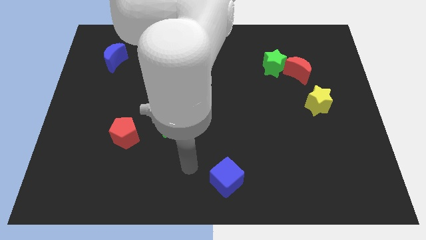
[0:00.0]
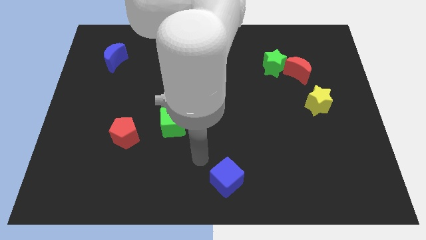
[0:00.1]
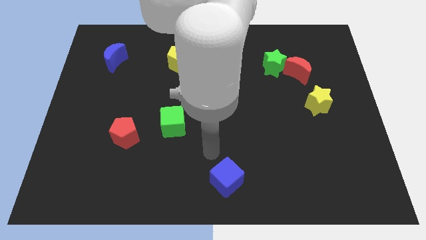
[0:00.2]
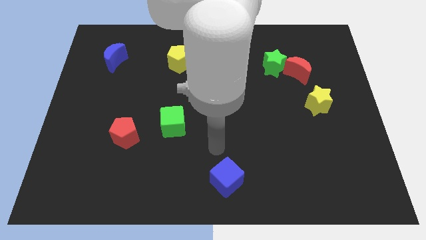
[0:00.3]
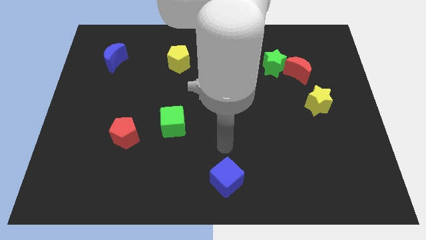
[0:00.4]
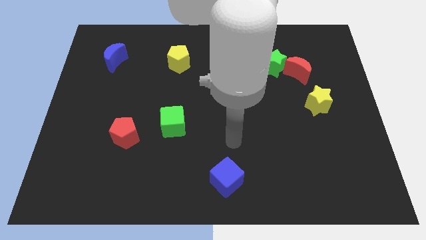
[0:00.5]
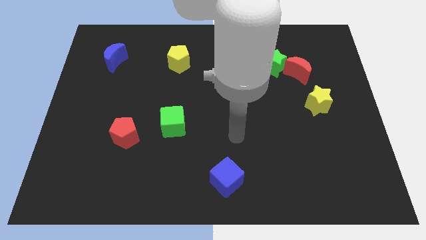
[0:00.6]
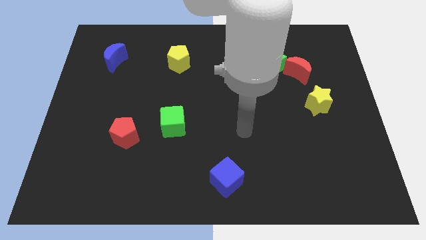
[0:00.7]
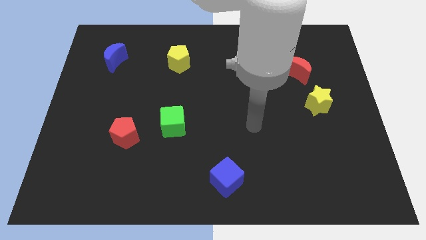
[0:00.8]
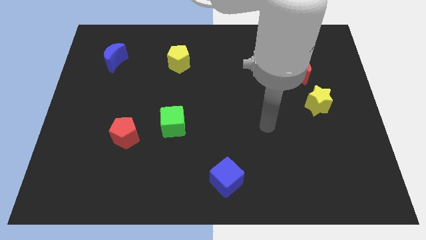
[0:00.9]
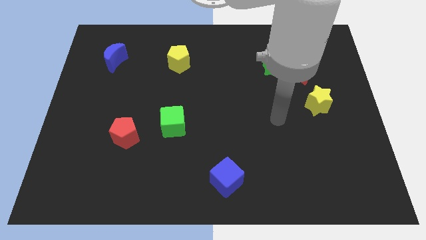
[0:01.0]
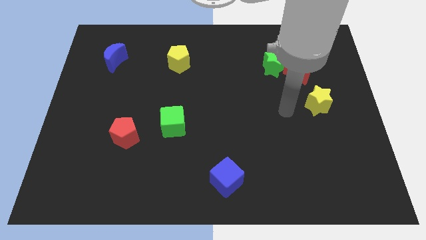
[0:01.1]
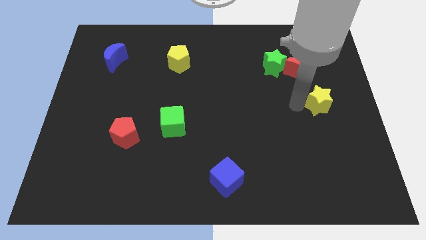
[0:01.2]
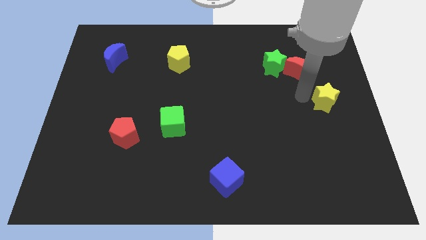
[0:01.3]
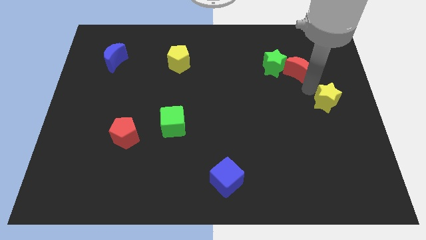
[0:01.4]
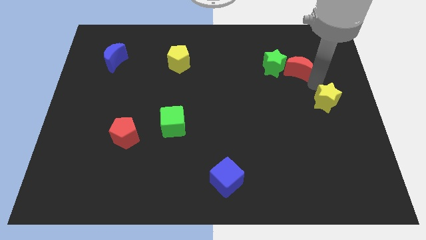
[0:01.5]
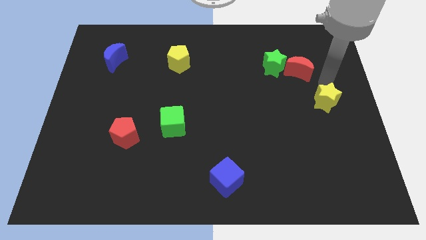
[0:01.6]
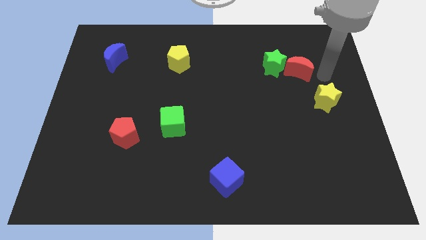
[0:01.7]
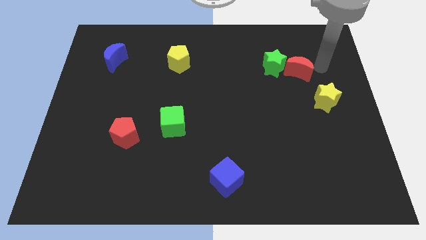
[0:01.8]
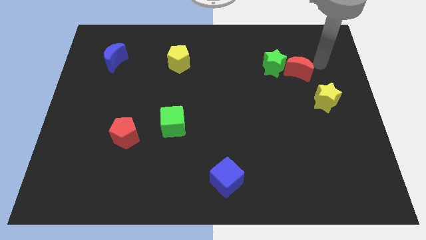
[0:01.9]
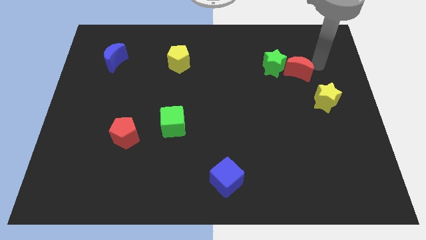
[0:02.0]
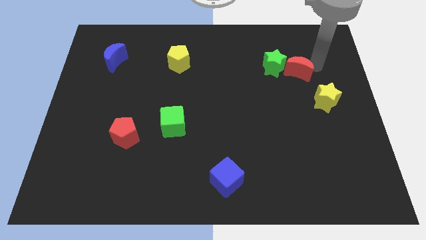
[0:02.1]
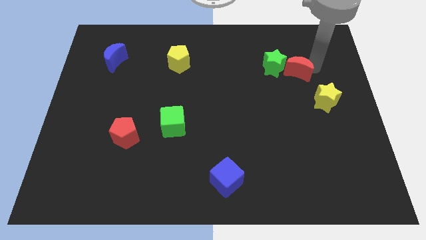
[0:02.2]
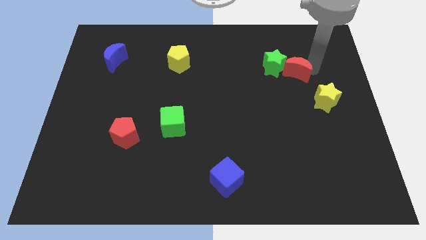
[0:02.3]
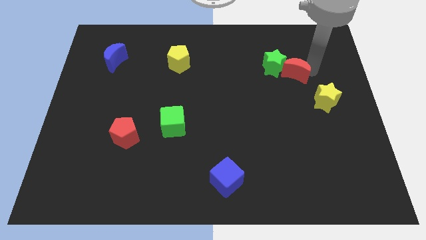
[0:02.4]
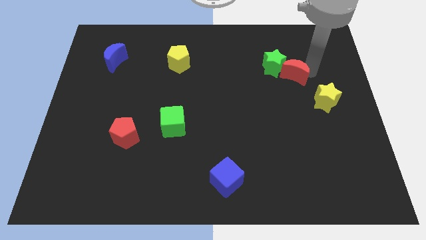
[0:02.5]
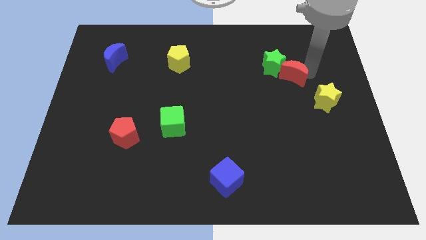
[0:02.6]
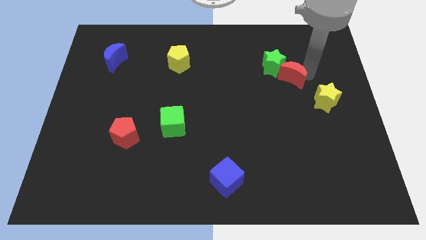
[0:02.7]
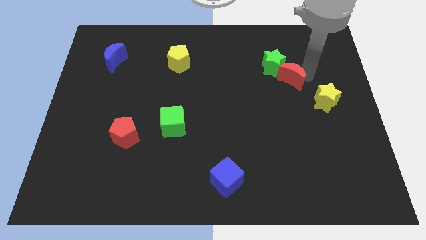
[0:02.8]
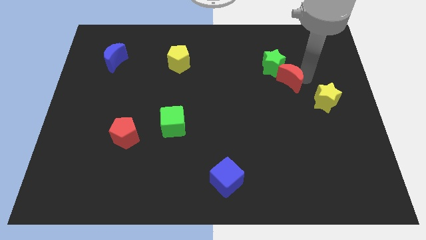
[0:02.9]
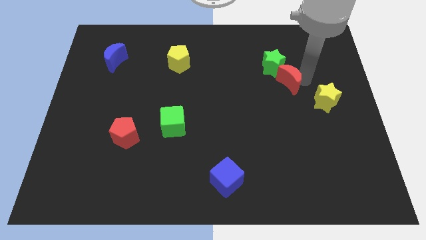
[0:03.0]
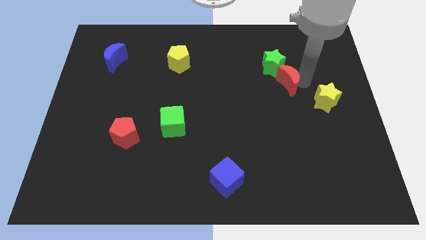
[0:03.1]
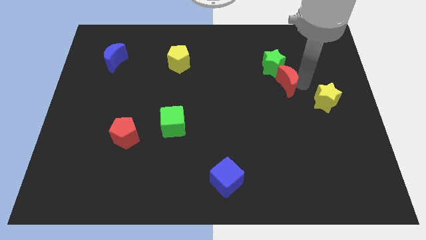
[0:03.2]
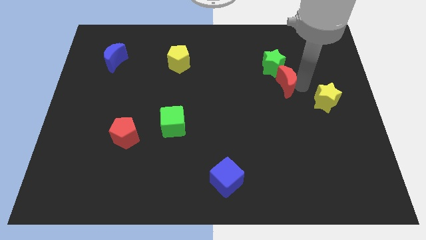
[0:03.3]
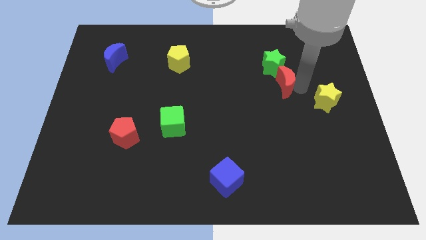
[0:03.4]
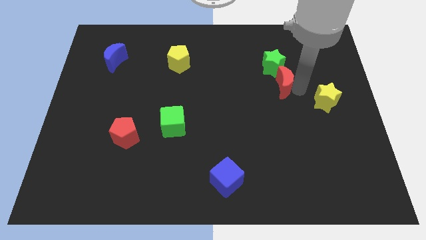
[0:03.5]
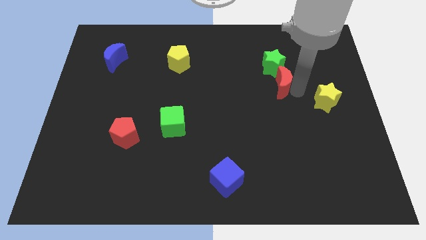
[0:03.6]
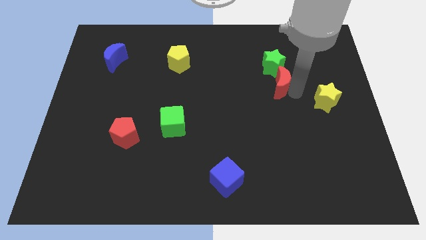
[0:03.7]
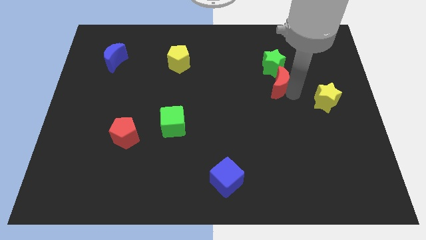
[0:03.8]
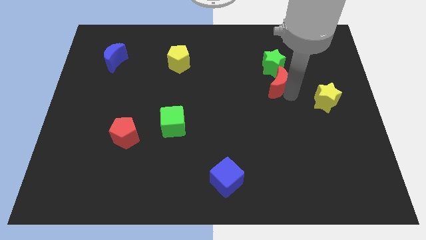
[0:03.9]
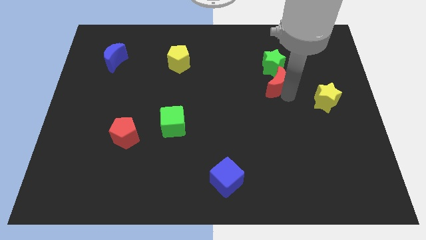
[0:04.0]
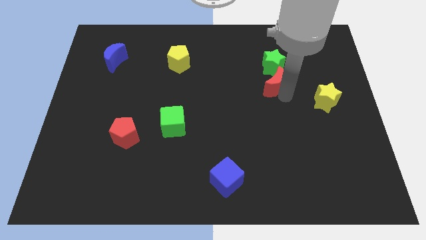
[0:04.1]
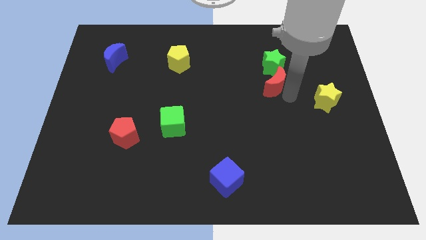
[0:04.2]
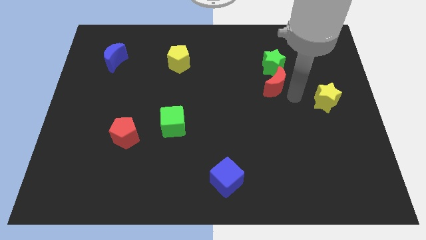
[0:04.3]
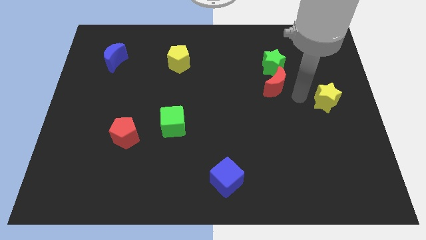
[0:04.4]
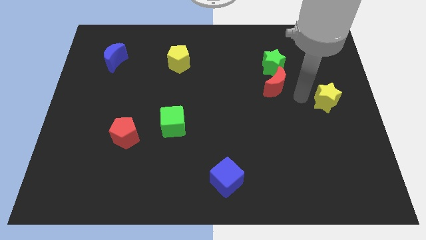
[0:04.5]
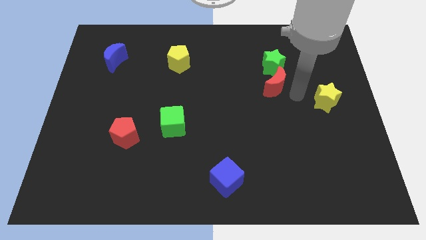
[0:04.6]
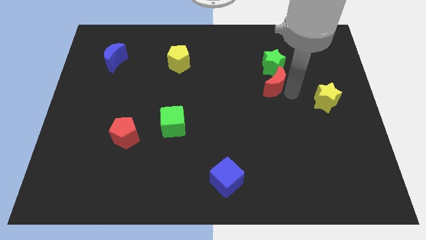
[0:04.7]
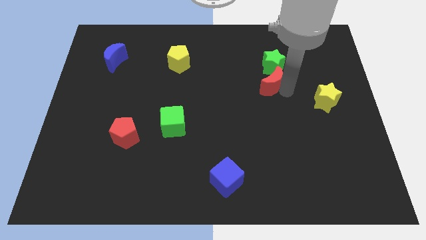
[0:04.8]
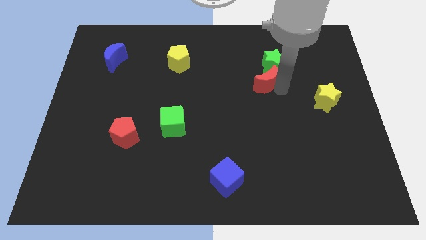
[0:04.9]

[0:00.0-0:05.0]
slightly push the red moon left

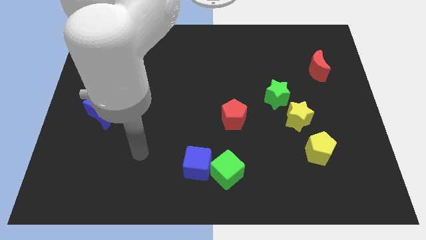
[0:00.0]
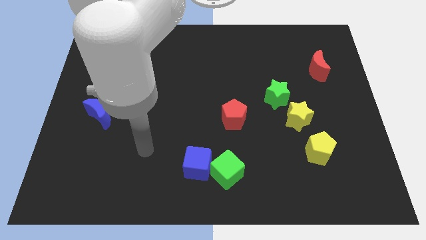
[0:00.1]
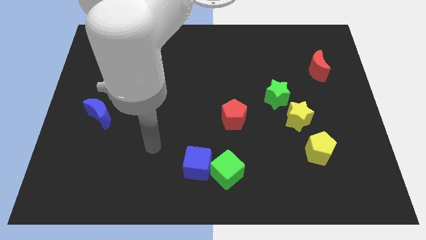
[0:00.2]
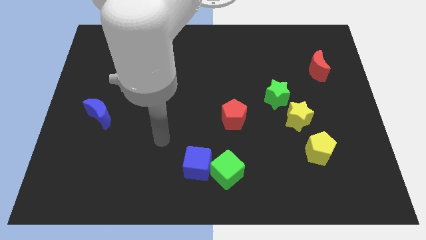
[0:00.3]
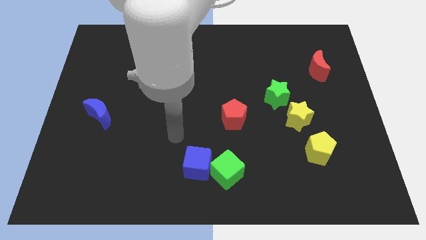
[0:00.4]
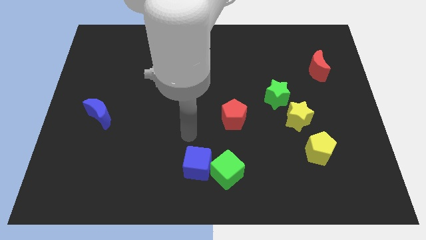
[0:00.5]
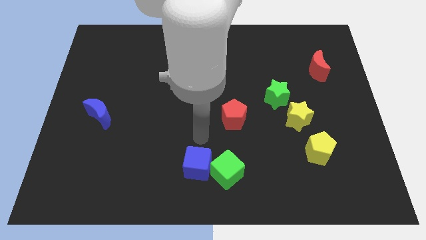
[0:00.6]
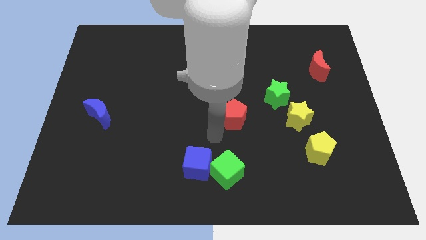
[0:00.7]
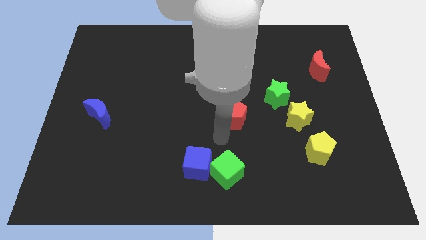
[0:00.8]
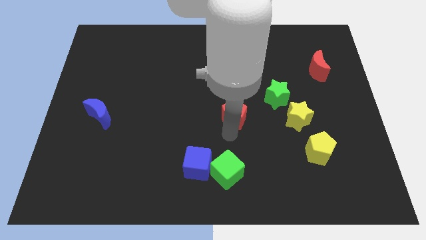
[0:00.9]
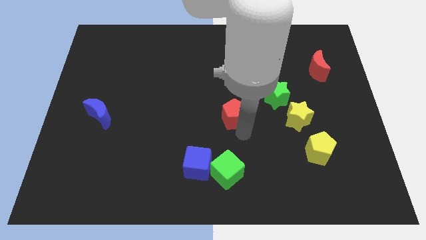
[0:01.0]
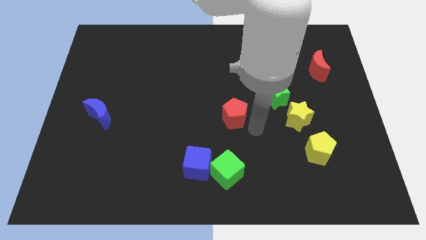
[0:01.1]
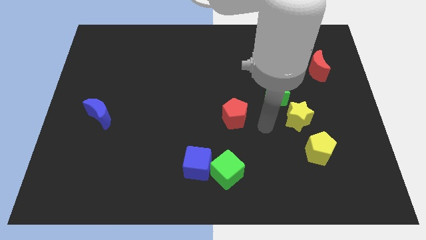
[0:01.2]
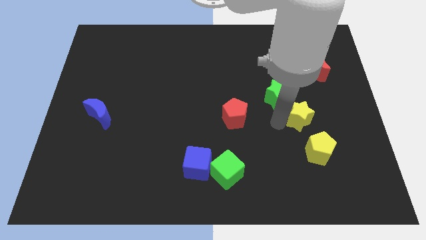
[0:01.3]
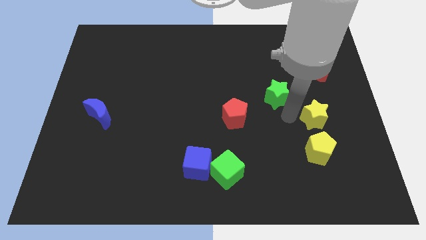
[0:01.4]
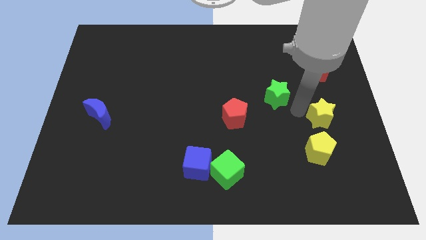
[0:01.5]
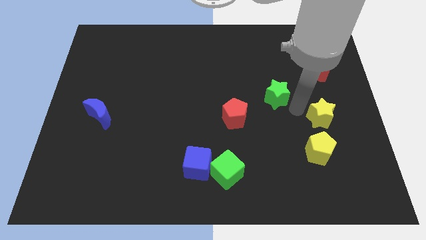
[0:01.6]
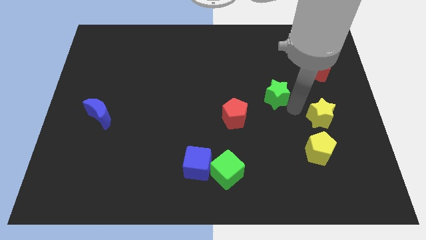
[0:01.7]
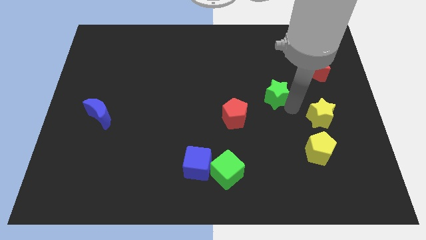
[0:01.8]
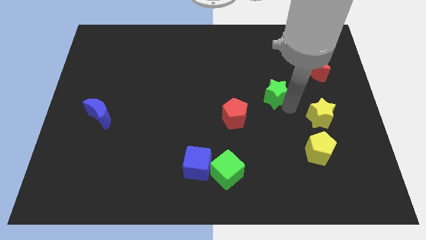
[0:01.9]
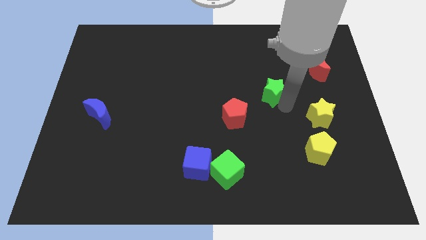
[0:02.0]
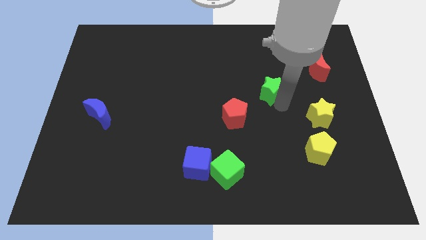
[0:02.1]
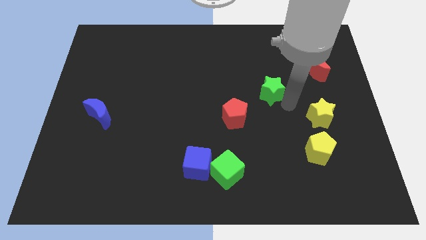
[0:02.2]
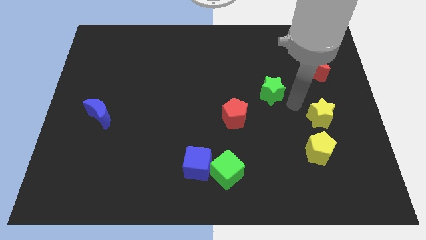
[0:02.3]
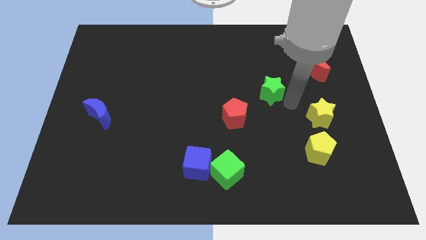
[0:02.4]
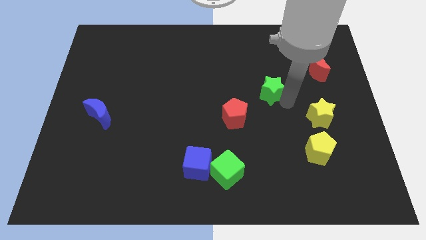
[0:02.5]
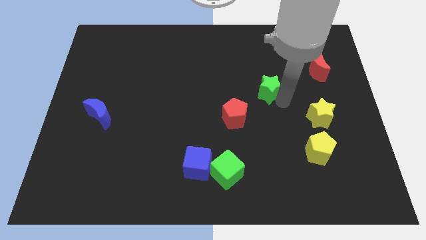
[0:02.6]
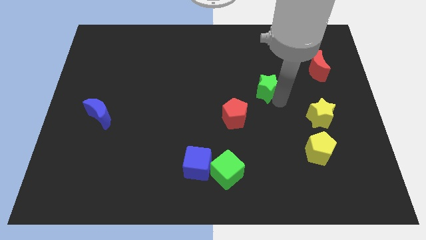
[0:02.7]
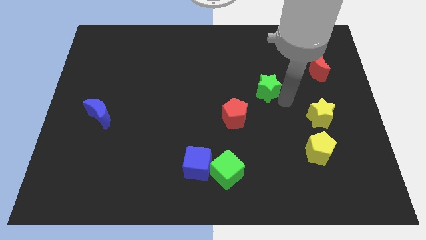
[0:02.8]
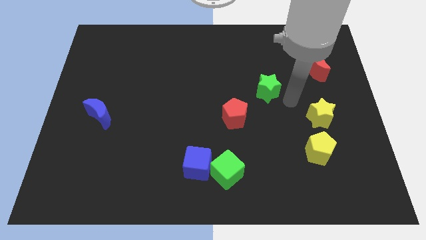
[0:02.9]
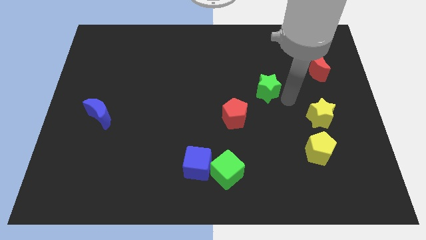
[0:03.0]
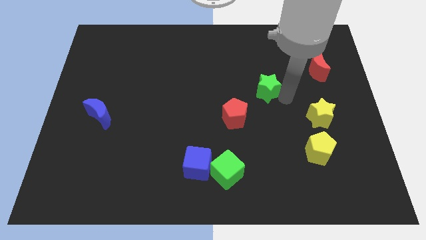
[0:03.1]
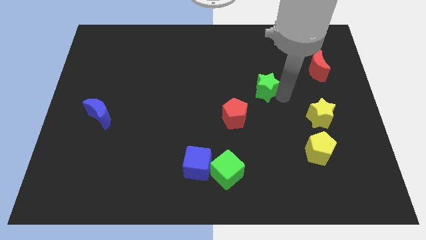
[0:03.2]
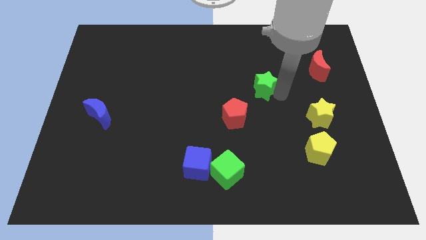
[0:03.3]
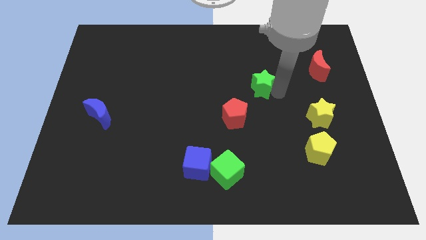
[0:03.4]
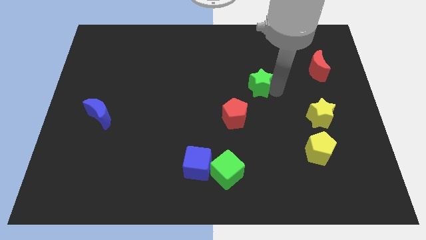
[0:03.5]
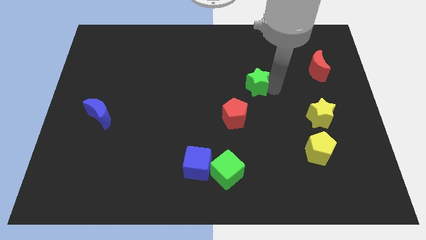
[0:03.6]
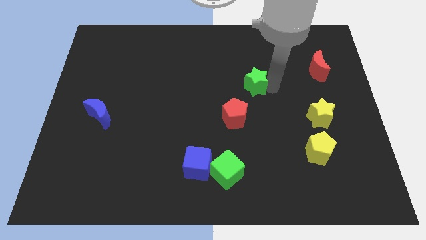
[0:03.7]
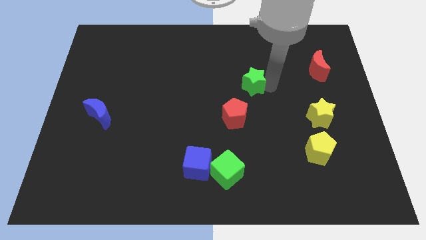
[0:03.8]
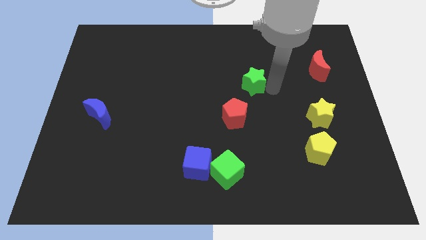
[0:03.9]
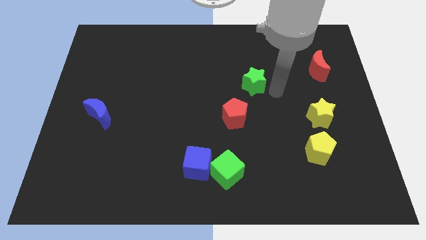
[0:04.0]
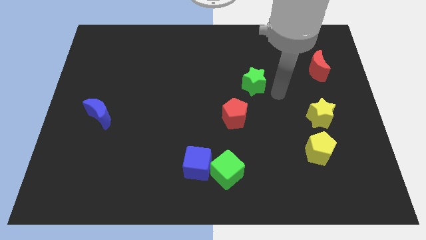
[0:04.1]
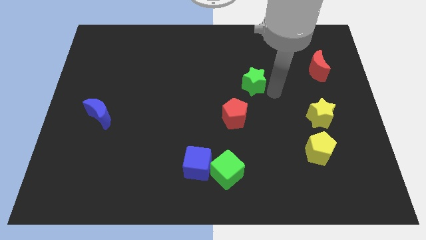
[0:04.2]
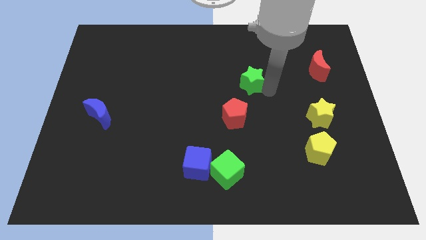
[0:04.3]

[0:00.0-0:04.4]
push the green star a bit diagonally up and to the left
